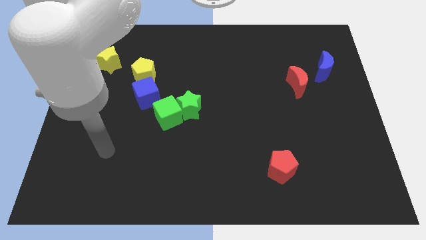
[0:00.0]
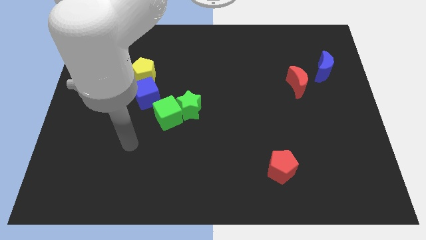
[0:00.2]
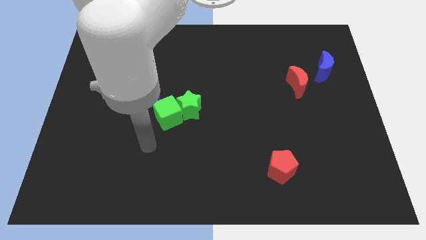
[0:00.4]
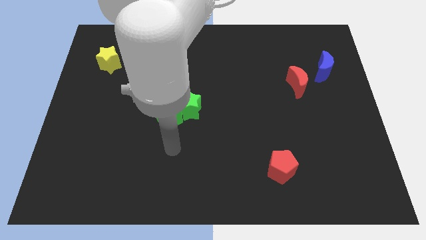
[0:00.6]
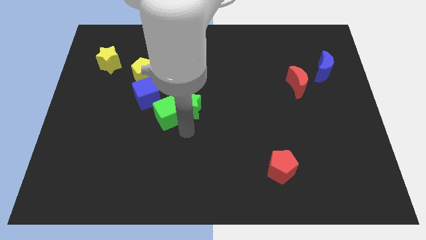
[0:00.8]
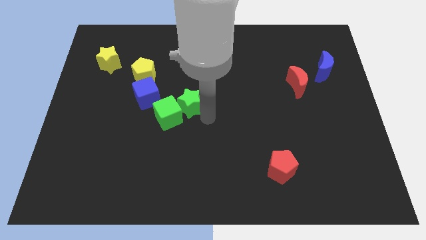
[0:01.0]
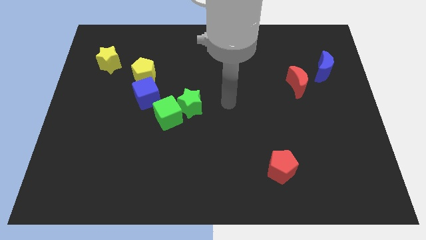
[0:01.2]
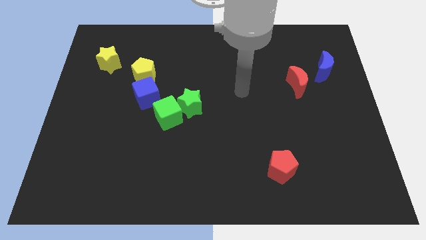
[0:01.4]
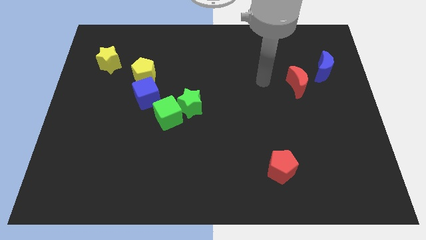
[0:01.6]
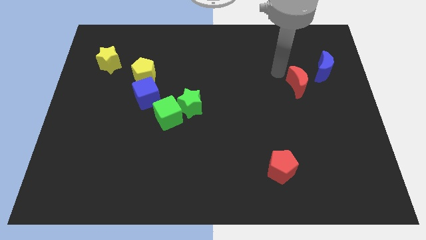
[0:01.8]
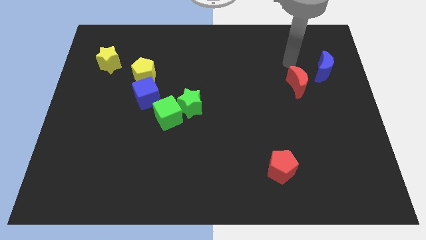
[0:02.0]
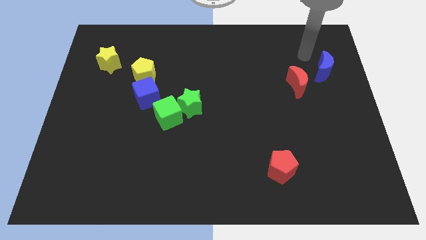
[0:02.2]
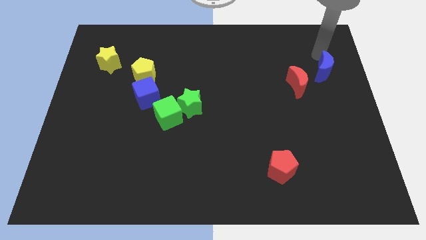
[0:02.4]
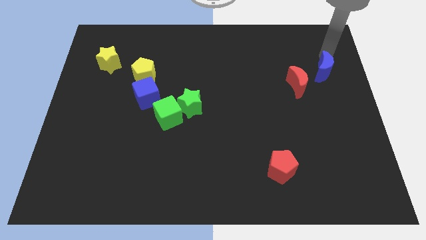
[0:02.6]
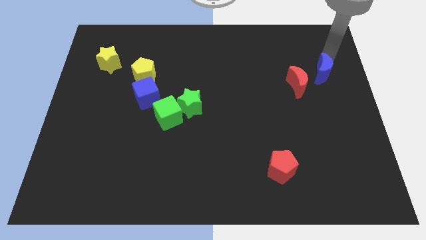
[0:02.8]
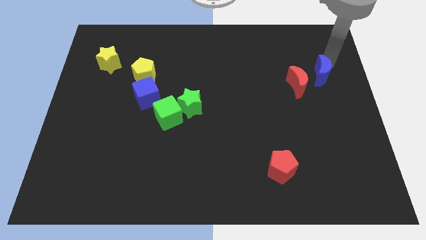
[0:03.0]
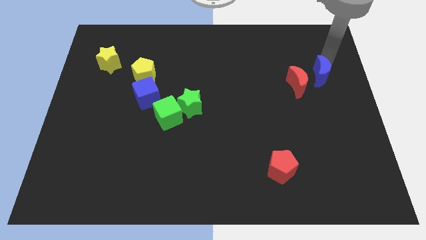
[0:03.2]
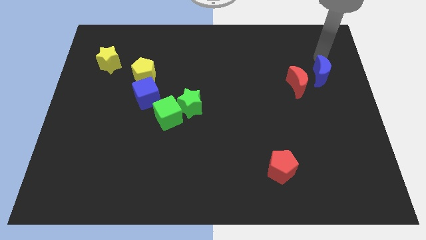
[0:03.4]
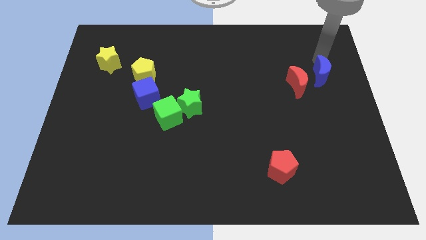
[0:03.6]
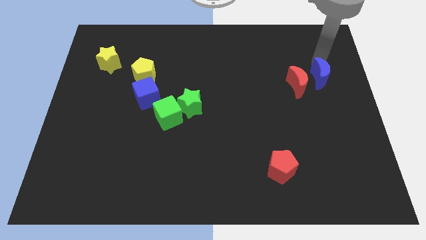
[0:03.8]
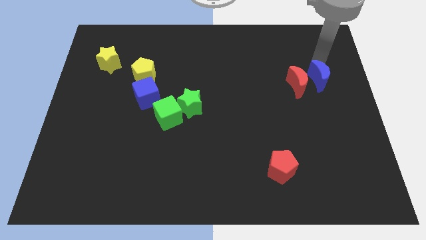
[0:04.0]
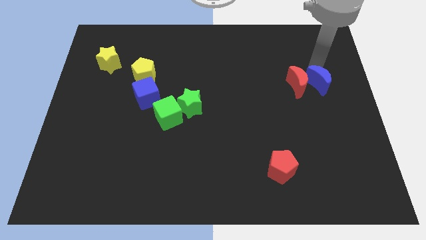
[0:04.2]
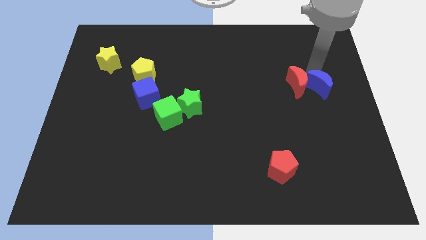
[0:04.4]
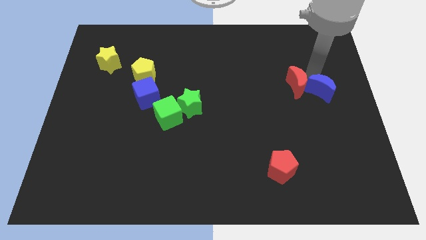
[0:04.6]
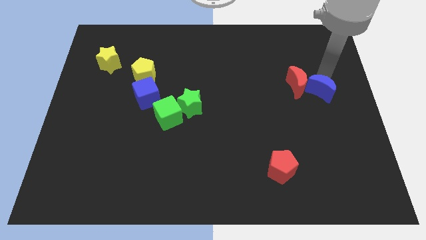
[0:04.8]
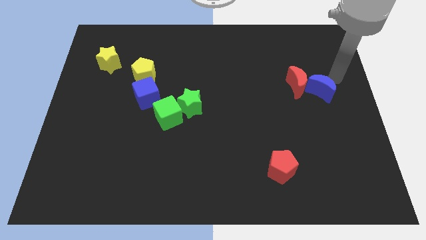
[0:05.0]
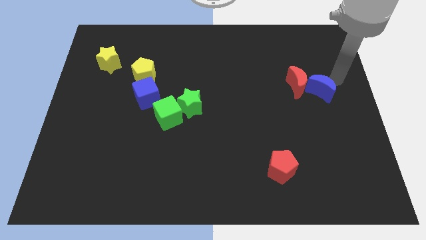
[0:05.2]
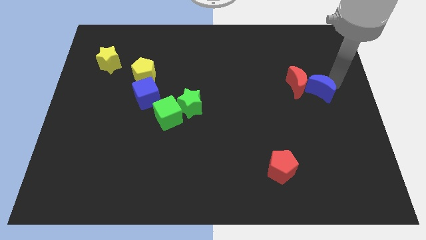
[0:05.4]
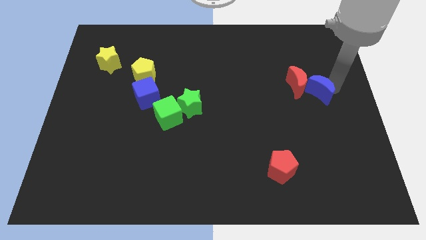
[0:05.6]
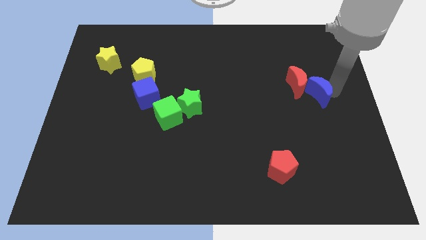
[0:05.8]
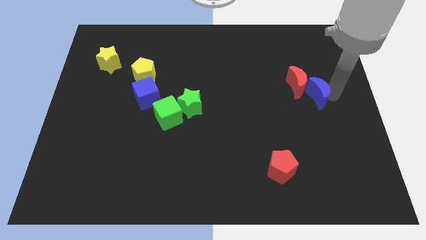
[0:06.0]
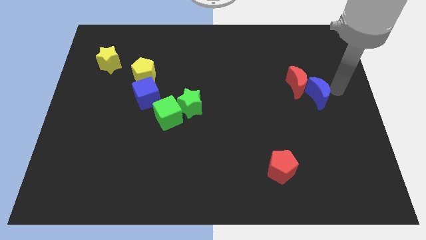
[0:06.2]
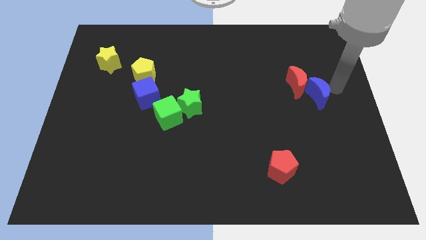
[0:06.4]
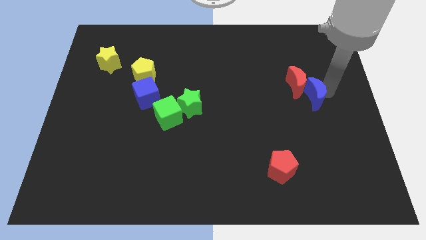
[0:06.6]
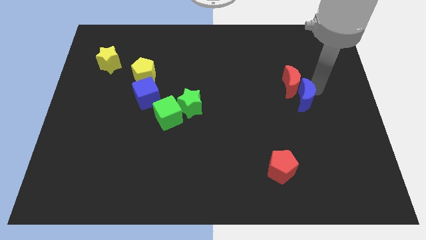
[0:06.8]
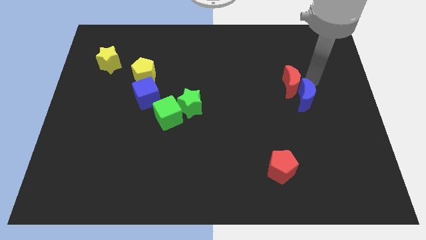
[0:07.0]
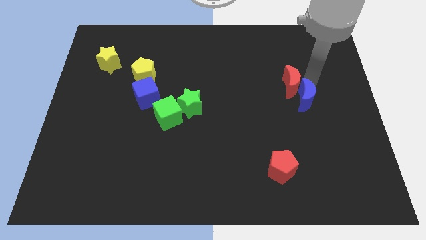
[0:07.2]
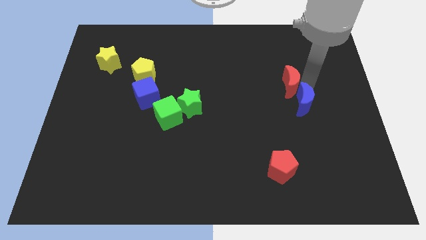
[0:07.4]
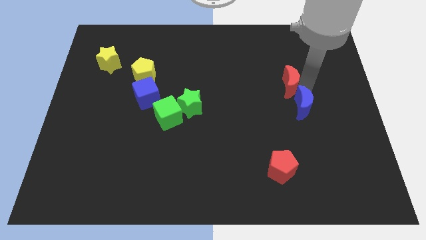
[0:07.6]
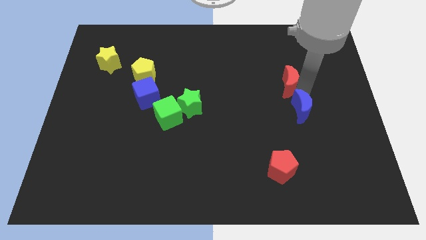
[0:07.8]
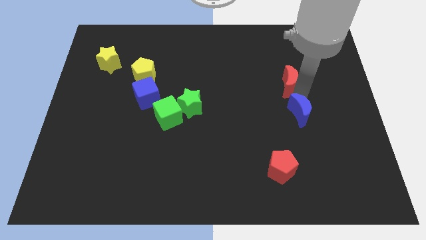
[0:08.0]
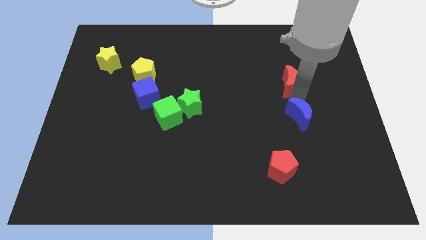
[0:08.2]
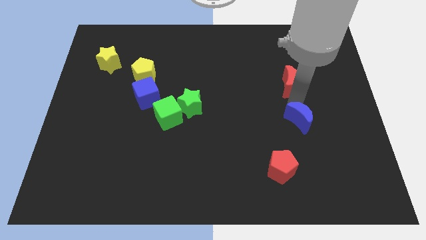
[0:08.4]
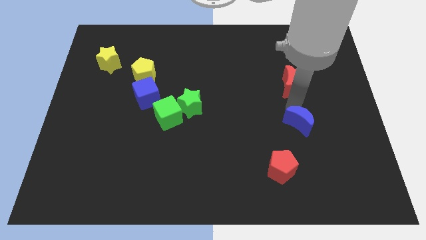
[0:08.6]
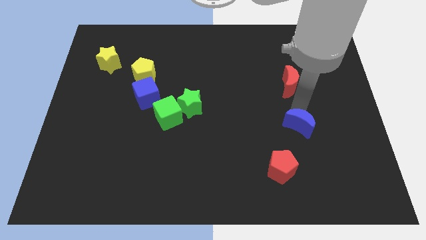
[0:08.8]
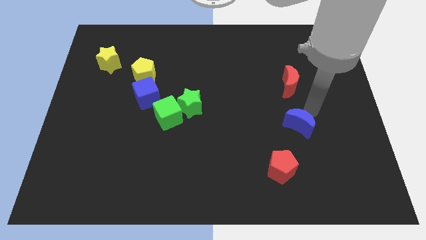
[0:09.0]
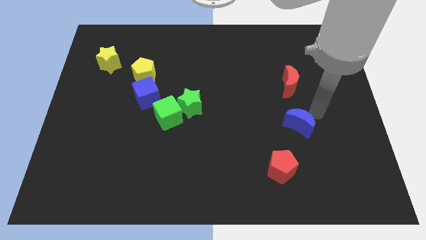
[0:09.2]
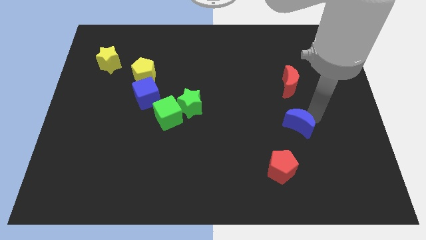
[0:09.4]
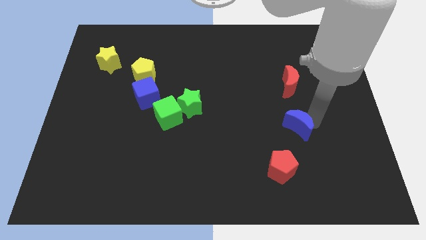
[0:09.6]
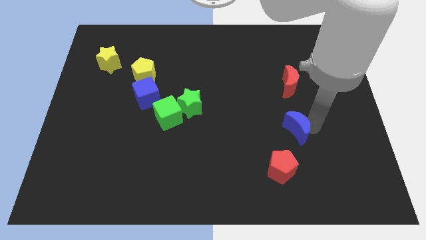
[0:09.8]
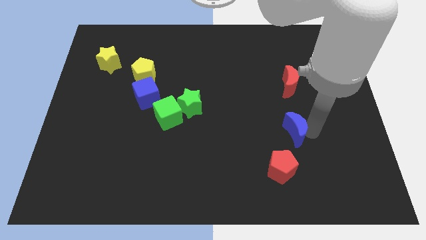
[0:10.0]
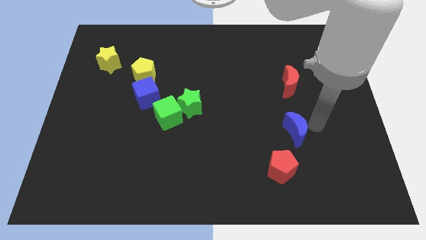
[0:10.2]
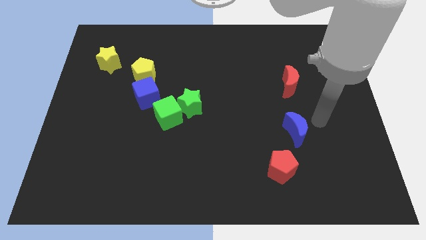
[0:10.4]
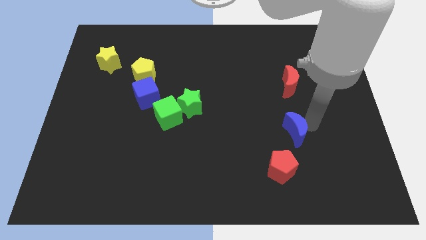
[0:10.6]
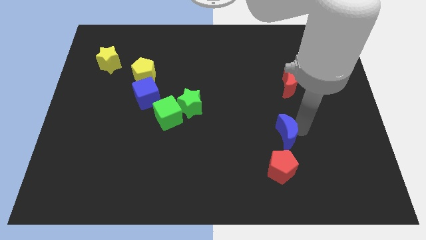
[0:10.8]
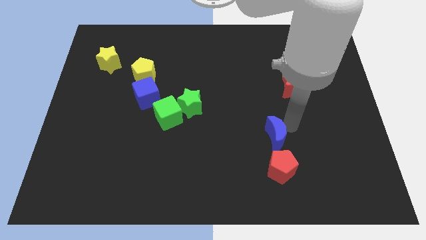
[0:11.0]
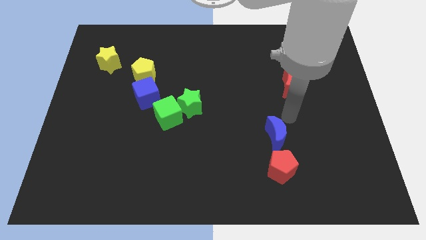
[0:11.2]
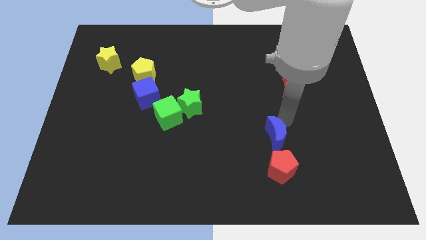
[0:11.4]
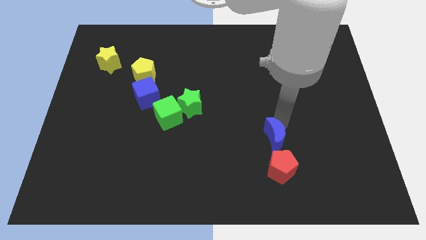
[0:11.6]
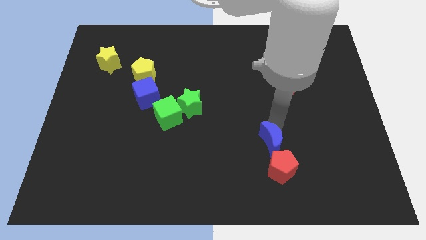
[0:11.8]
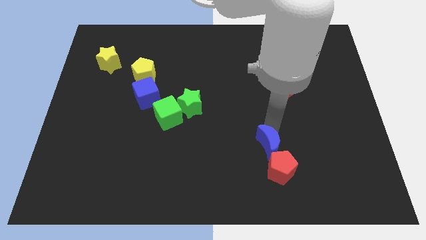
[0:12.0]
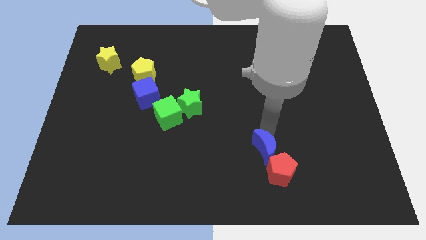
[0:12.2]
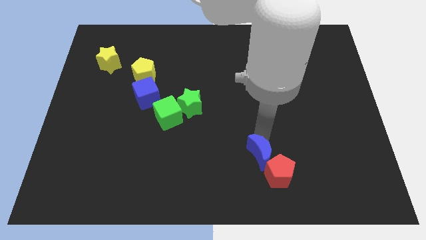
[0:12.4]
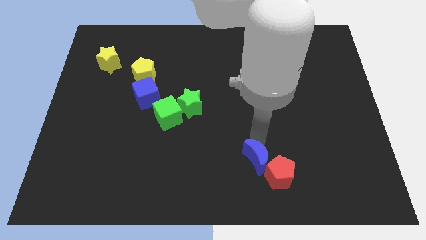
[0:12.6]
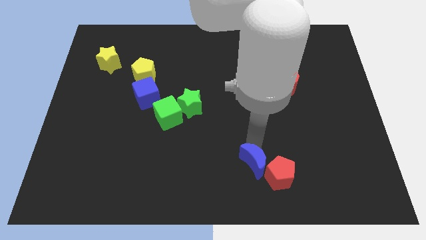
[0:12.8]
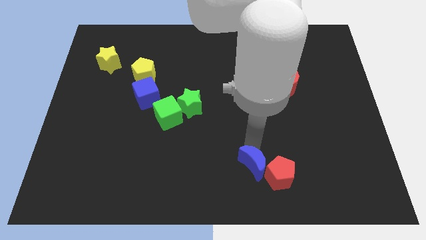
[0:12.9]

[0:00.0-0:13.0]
push the blue moon to the bottom side
